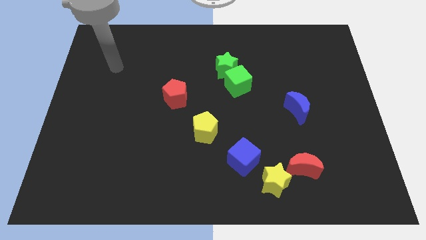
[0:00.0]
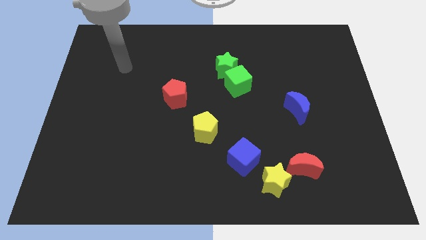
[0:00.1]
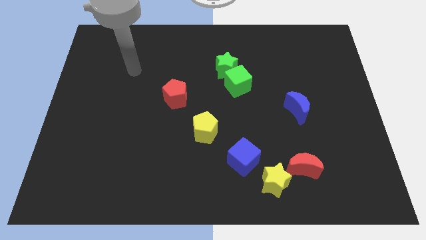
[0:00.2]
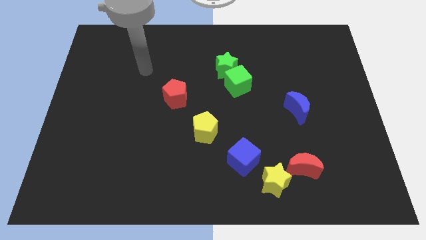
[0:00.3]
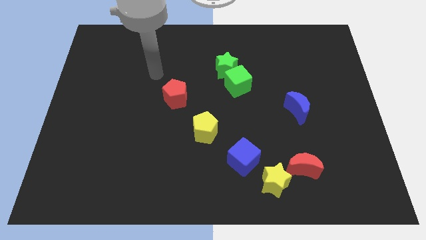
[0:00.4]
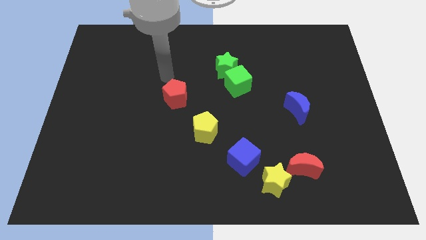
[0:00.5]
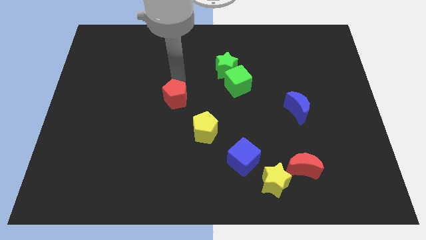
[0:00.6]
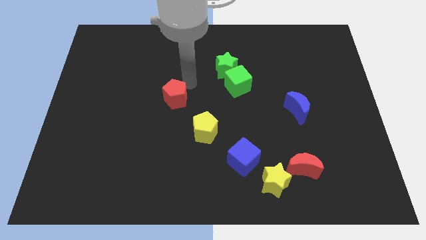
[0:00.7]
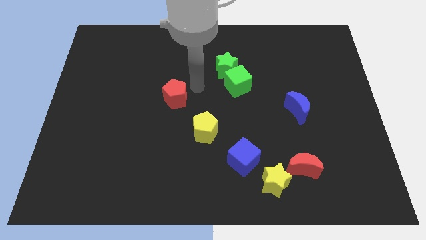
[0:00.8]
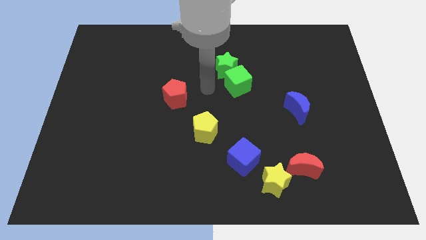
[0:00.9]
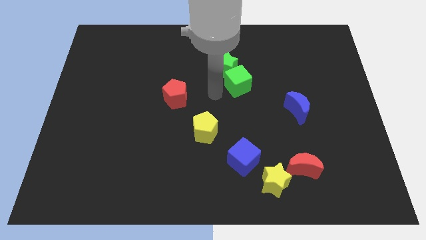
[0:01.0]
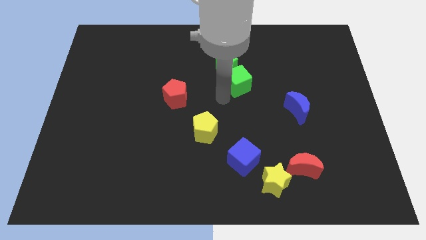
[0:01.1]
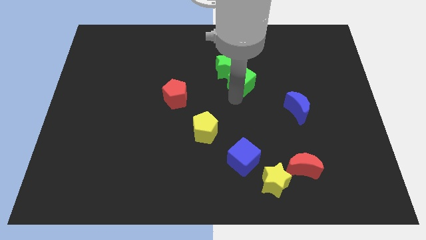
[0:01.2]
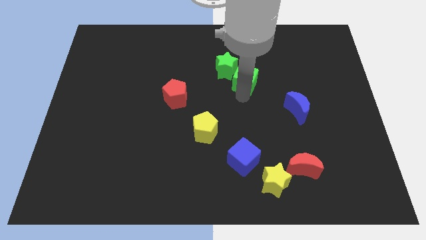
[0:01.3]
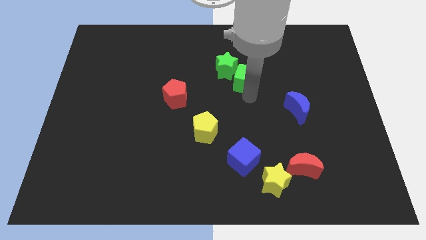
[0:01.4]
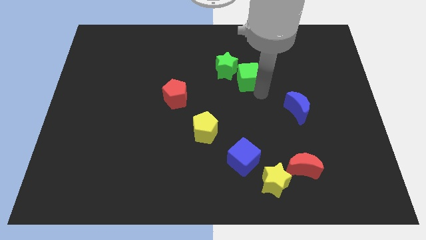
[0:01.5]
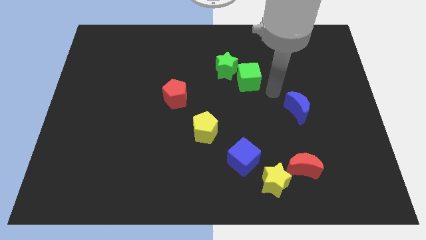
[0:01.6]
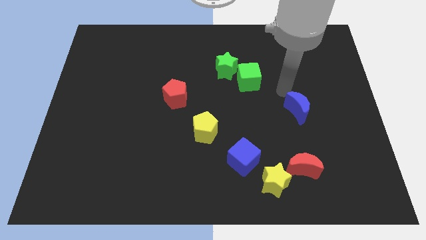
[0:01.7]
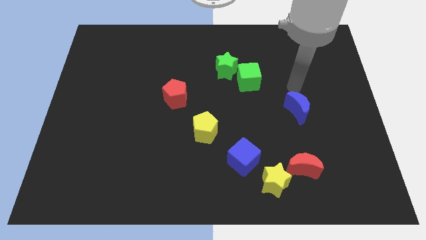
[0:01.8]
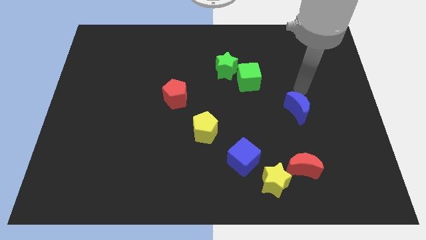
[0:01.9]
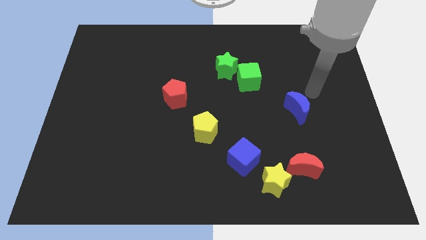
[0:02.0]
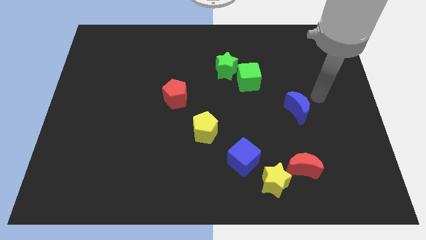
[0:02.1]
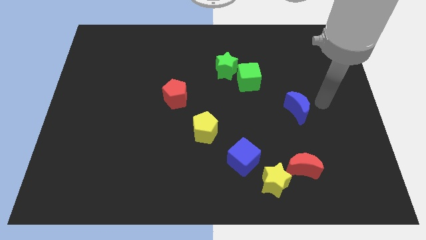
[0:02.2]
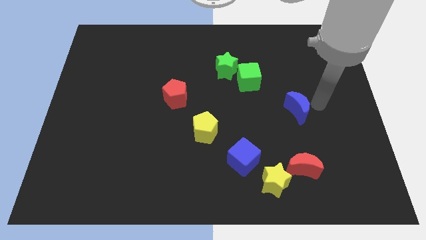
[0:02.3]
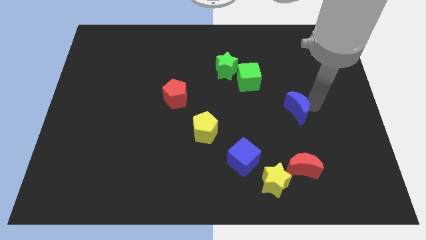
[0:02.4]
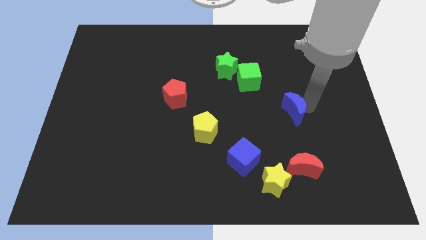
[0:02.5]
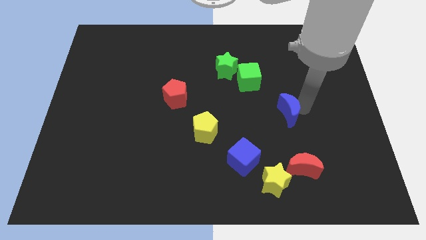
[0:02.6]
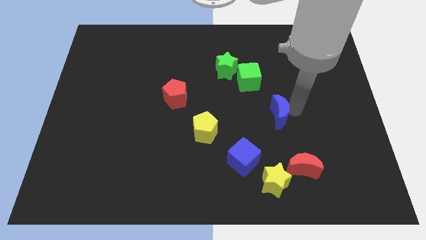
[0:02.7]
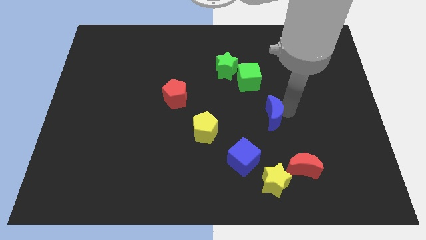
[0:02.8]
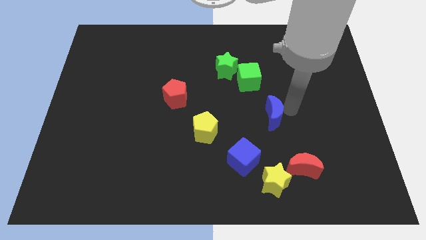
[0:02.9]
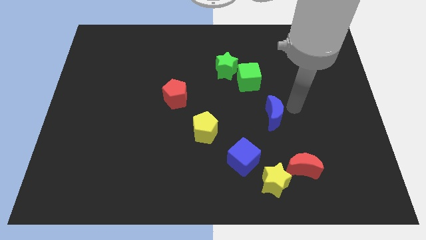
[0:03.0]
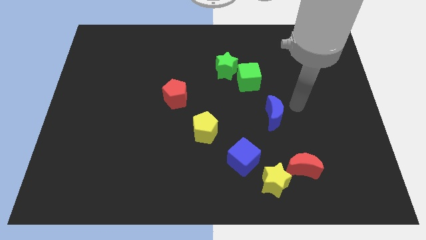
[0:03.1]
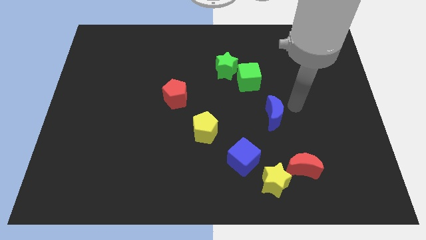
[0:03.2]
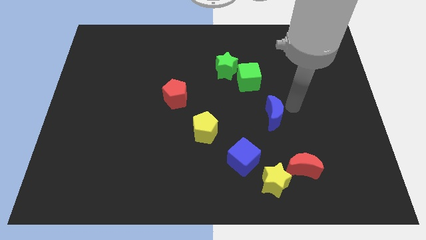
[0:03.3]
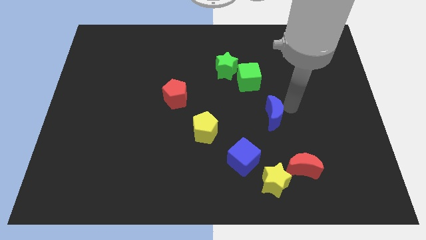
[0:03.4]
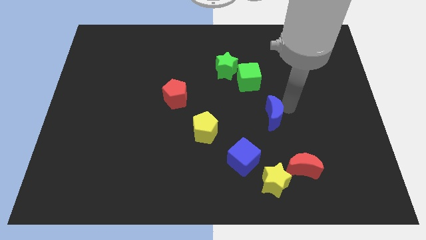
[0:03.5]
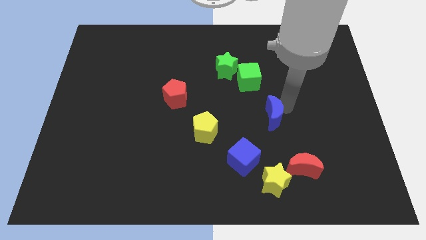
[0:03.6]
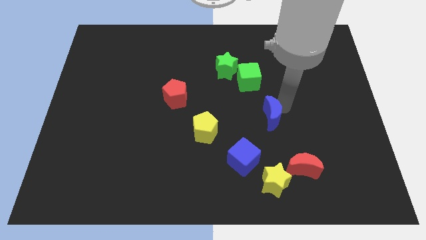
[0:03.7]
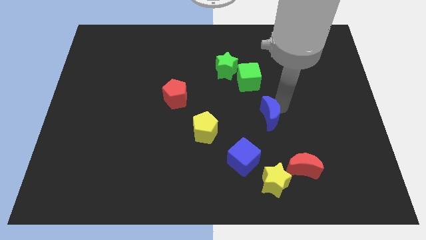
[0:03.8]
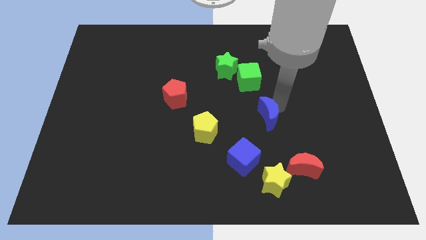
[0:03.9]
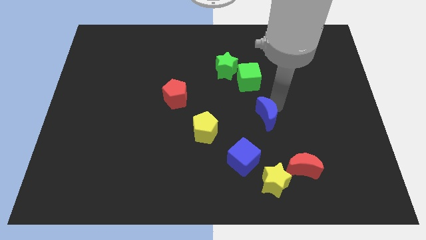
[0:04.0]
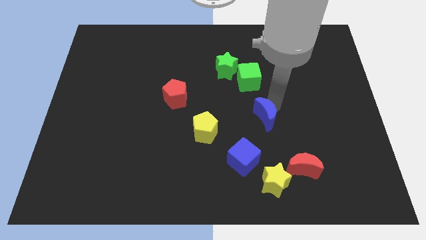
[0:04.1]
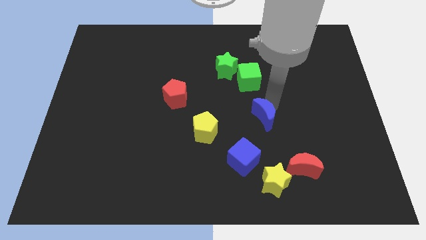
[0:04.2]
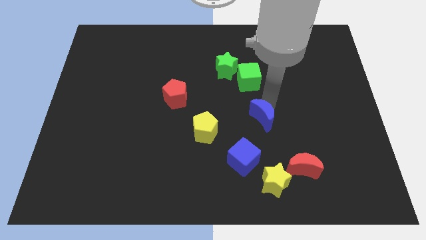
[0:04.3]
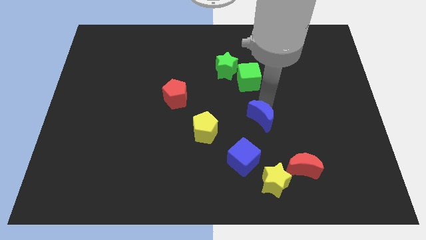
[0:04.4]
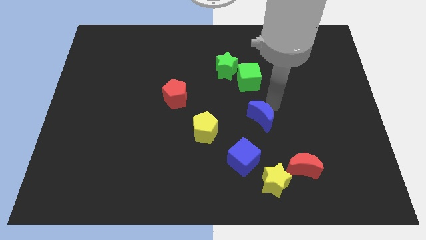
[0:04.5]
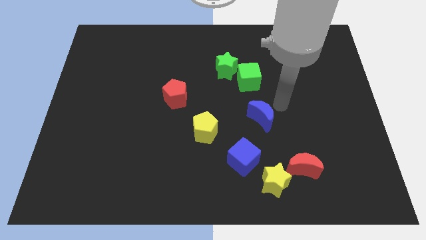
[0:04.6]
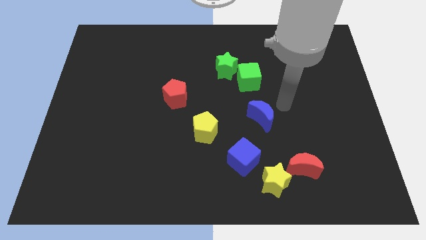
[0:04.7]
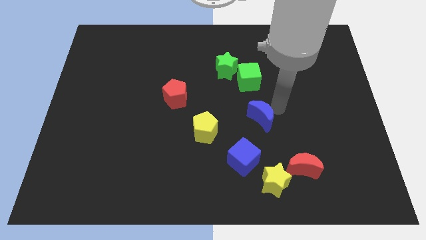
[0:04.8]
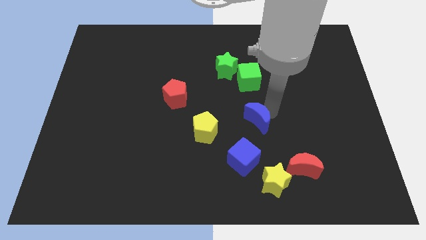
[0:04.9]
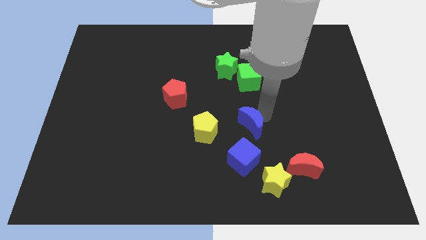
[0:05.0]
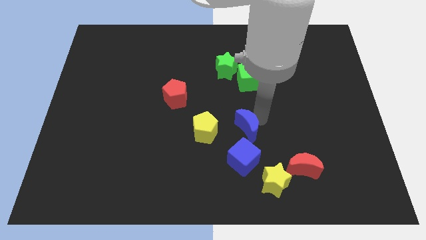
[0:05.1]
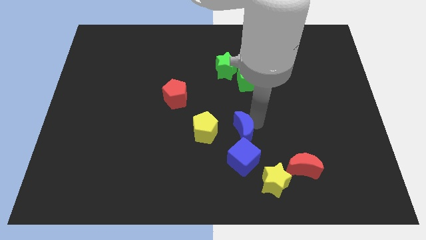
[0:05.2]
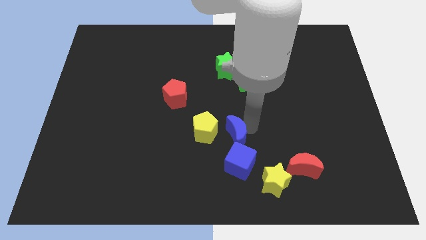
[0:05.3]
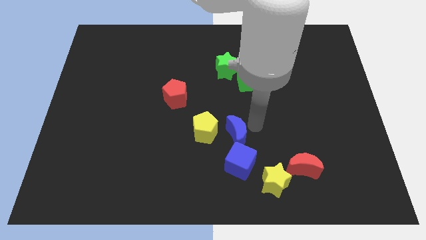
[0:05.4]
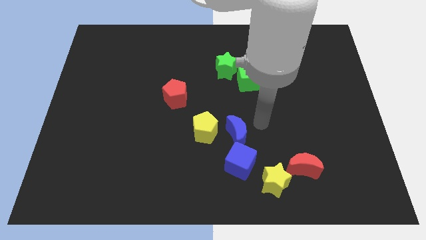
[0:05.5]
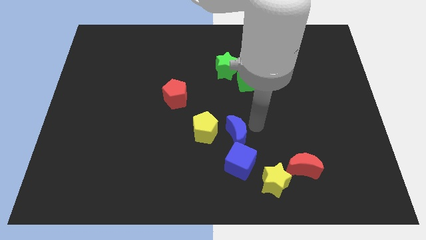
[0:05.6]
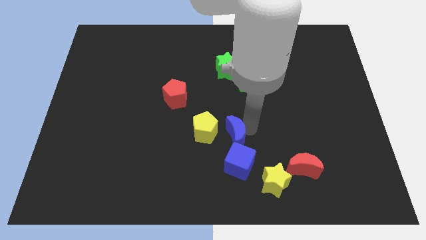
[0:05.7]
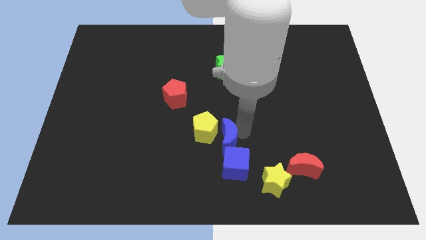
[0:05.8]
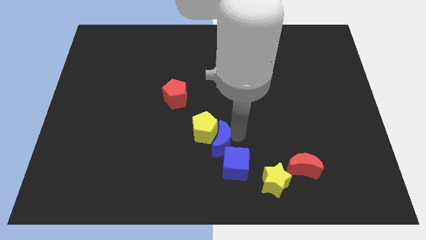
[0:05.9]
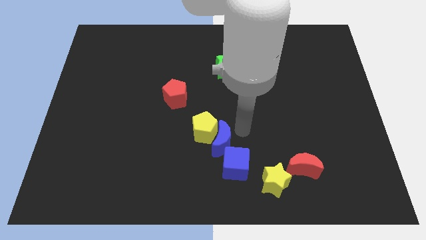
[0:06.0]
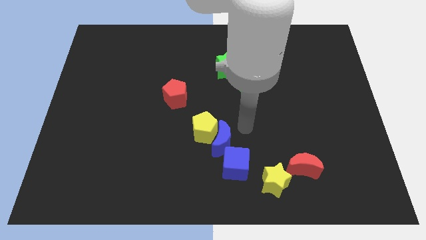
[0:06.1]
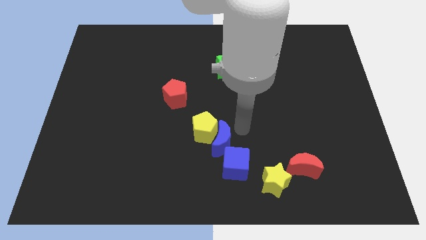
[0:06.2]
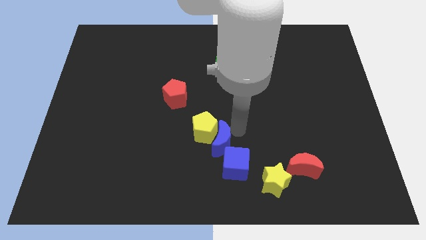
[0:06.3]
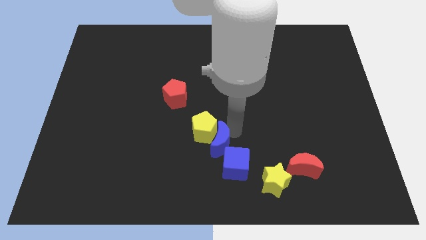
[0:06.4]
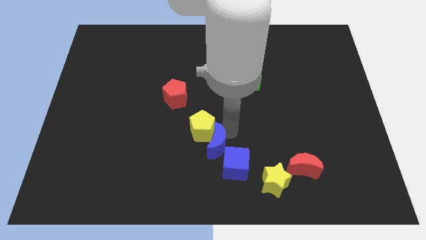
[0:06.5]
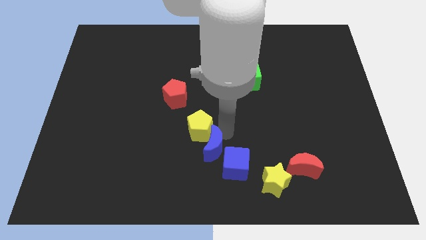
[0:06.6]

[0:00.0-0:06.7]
move the blue moon left of the blue cube

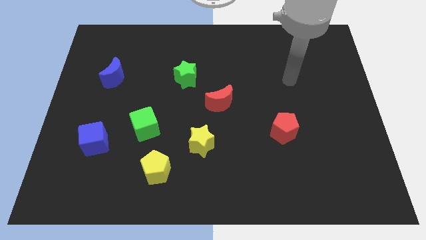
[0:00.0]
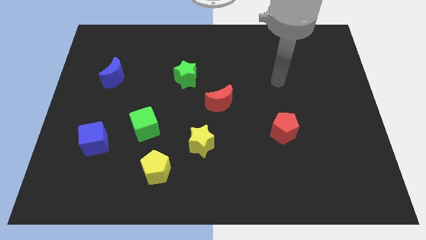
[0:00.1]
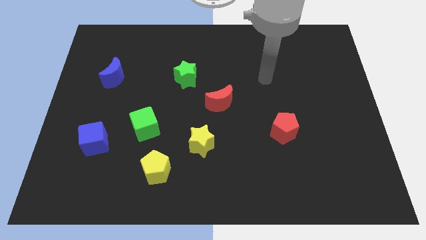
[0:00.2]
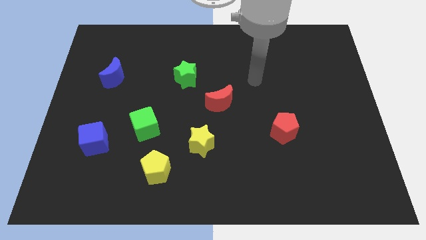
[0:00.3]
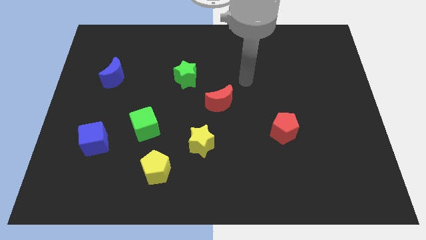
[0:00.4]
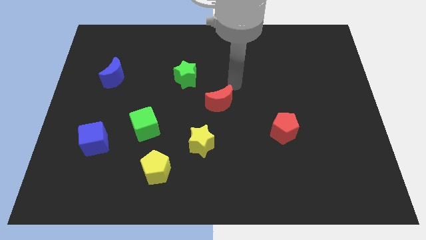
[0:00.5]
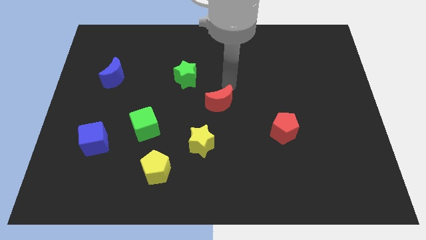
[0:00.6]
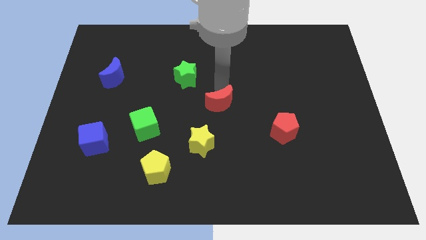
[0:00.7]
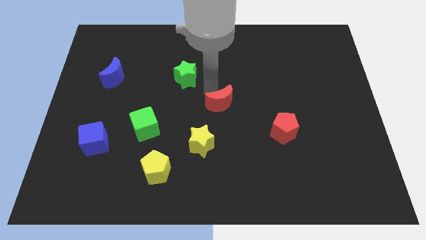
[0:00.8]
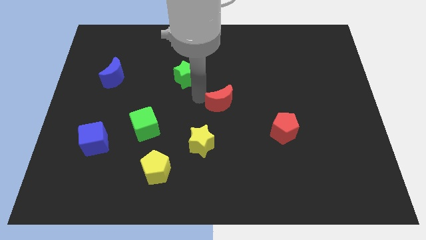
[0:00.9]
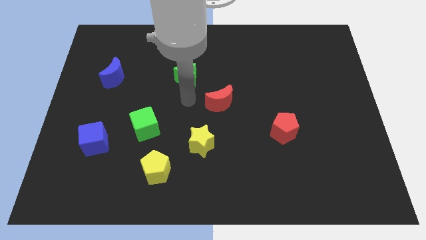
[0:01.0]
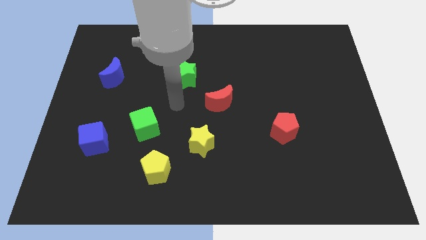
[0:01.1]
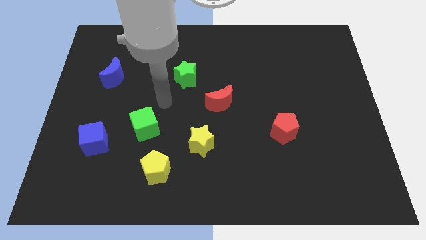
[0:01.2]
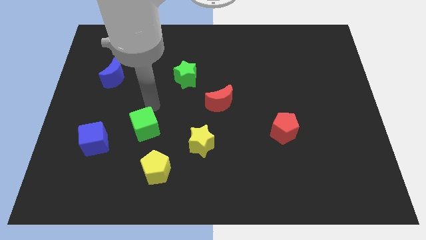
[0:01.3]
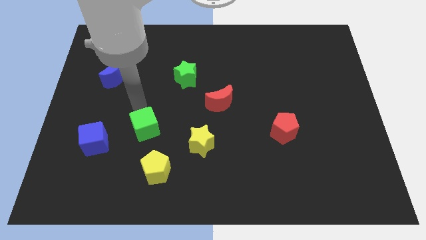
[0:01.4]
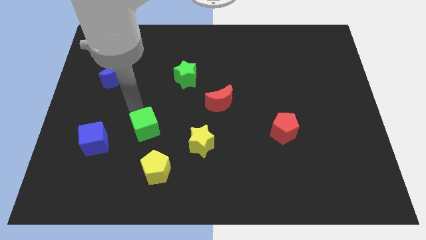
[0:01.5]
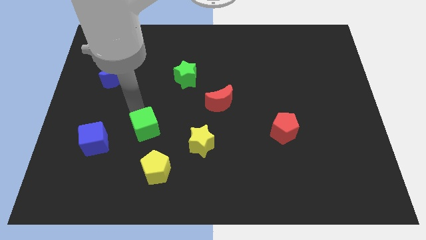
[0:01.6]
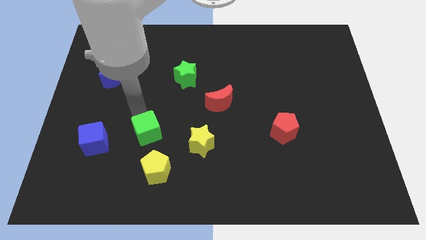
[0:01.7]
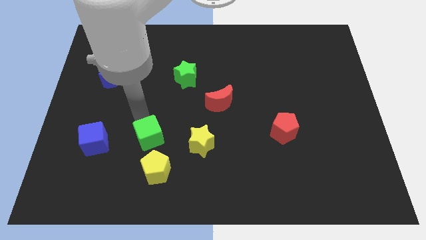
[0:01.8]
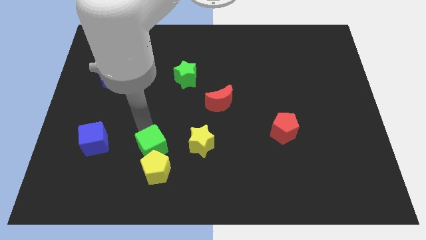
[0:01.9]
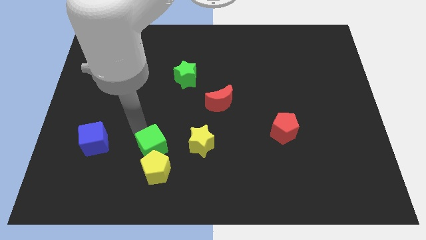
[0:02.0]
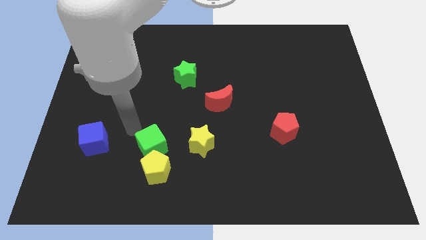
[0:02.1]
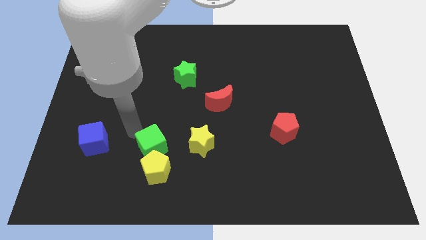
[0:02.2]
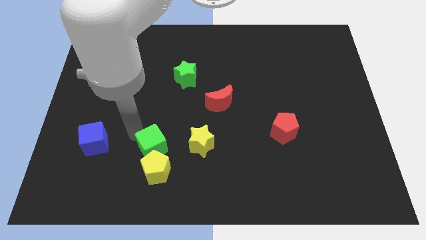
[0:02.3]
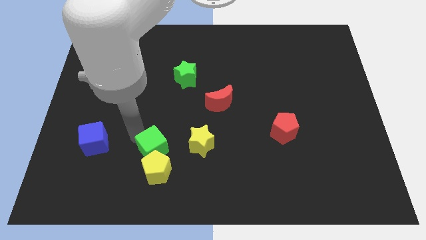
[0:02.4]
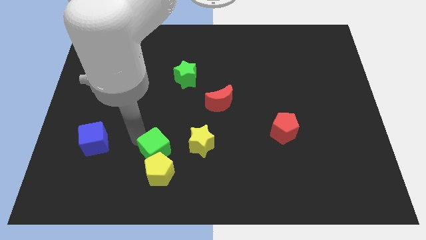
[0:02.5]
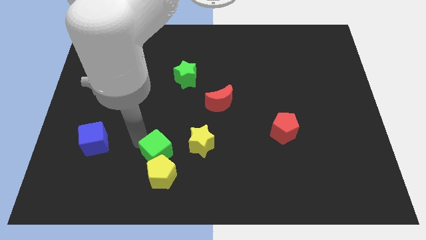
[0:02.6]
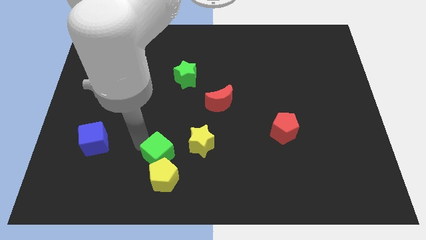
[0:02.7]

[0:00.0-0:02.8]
slide the green cube to the bottom left of the yellow star
